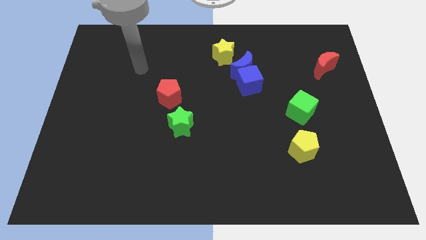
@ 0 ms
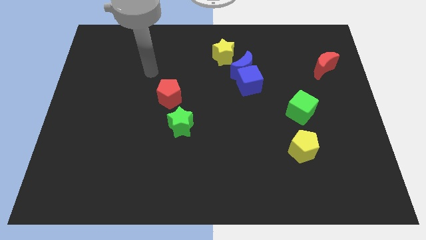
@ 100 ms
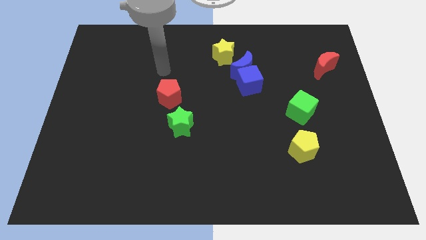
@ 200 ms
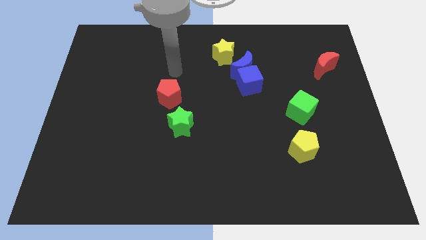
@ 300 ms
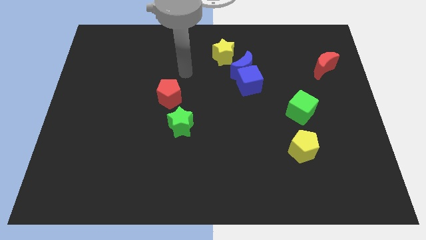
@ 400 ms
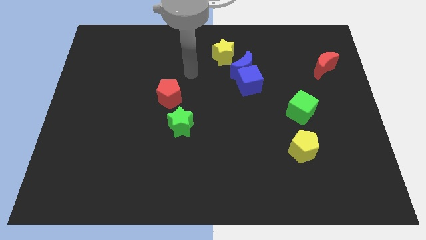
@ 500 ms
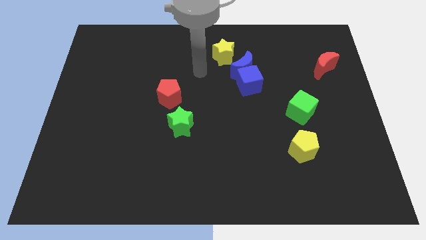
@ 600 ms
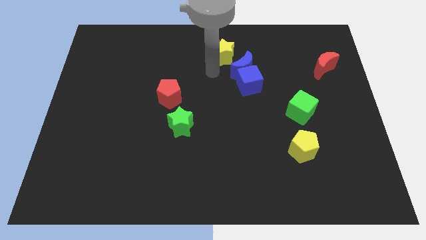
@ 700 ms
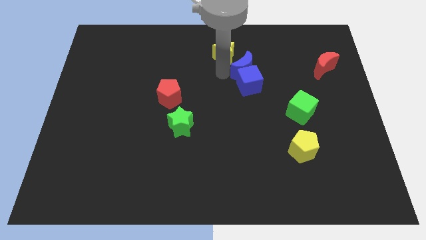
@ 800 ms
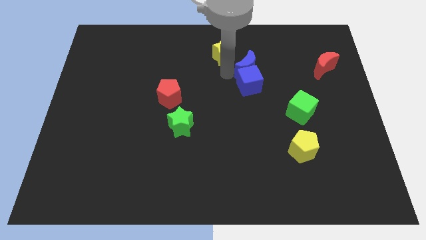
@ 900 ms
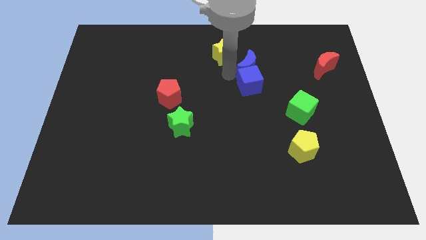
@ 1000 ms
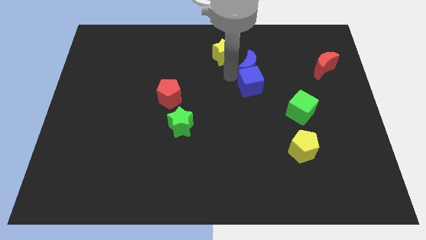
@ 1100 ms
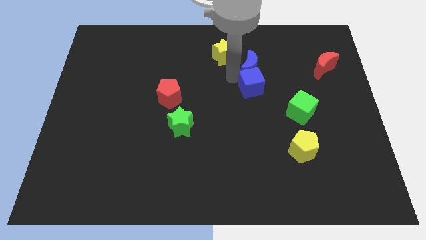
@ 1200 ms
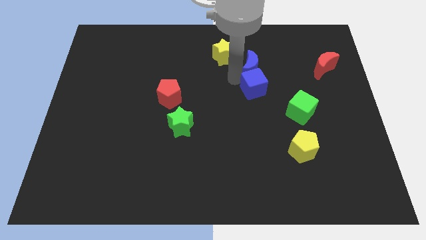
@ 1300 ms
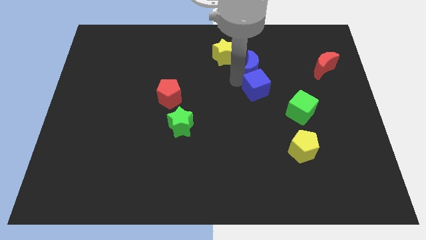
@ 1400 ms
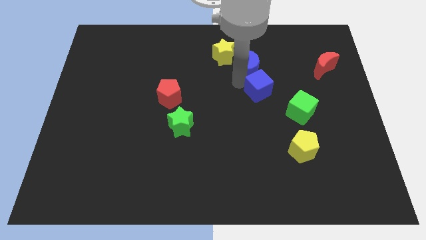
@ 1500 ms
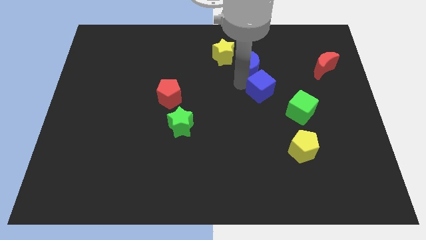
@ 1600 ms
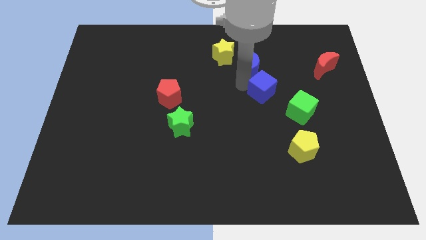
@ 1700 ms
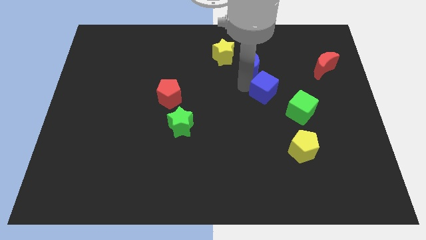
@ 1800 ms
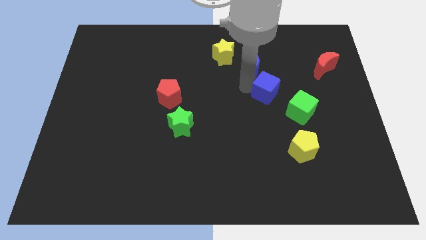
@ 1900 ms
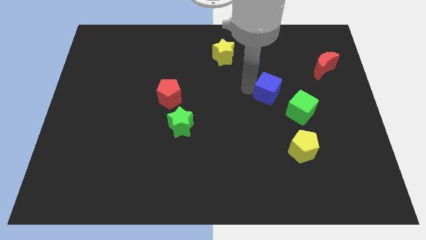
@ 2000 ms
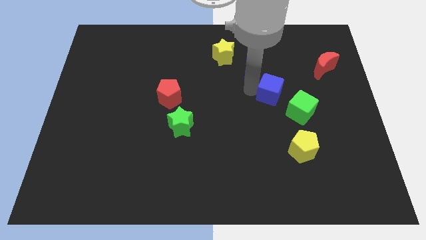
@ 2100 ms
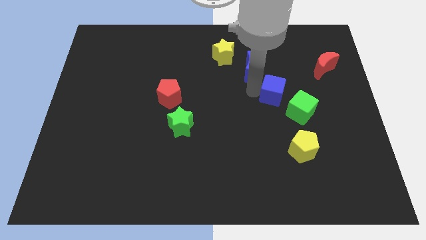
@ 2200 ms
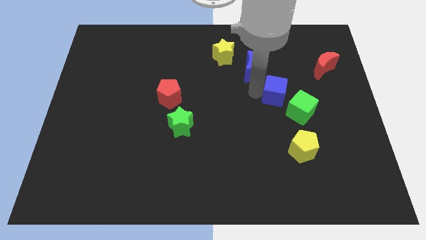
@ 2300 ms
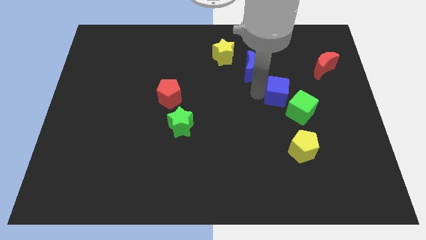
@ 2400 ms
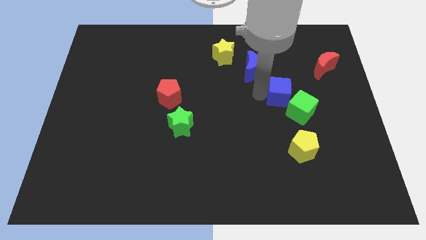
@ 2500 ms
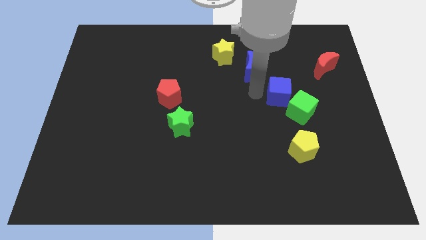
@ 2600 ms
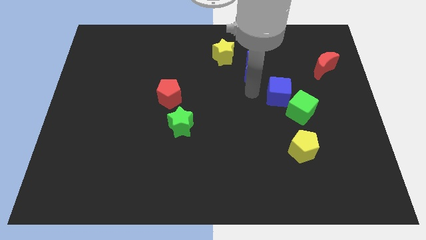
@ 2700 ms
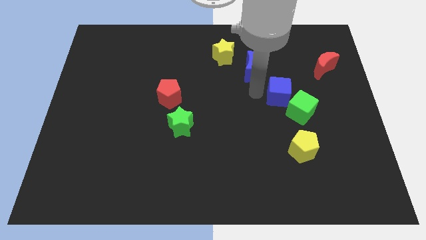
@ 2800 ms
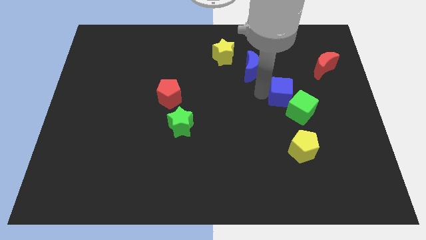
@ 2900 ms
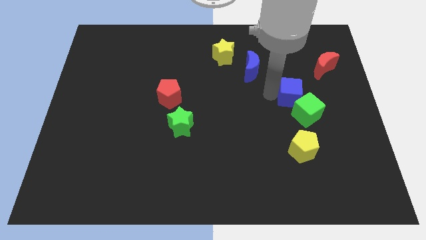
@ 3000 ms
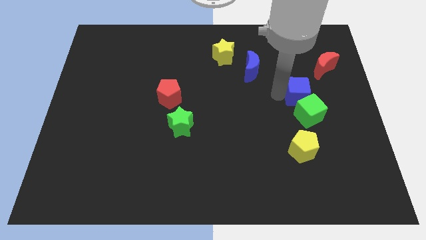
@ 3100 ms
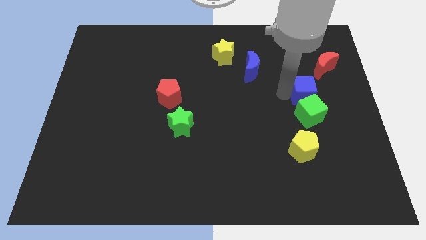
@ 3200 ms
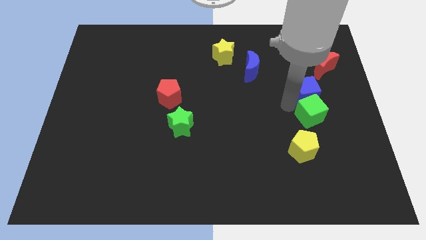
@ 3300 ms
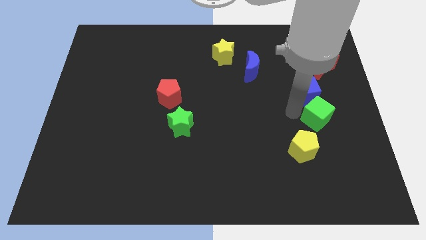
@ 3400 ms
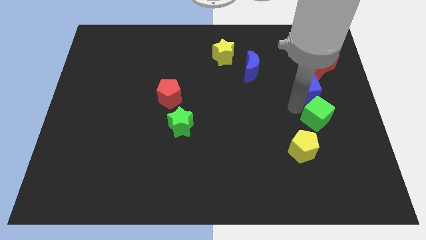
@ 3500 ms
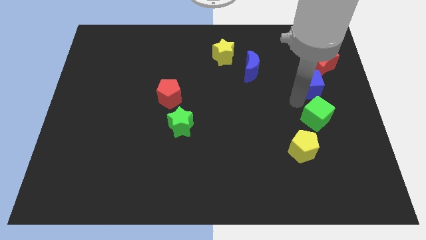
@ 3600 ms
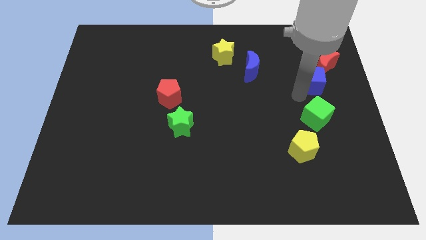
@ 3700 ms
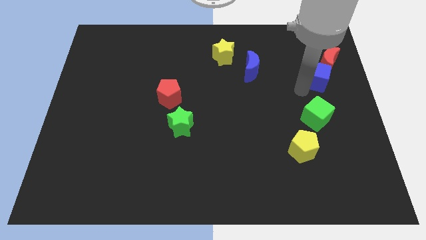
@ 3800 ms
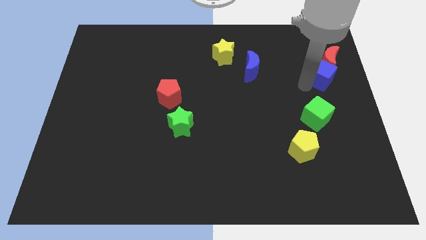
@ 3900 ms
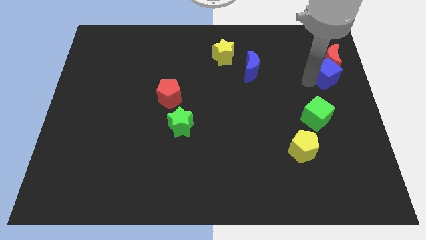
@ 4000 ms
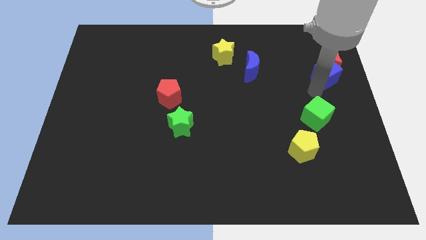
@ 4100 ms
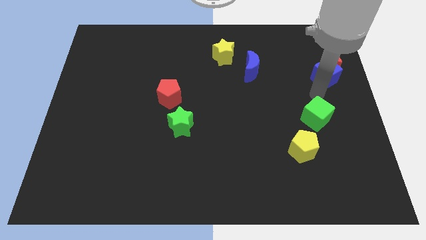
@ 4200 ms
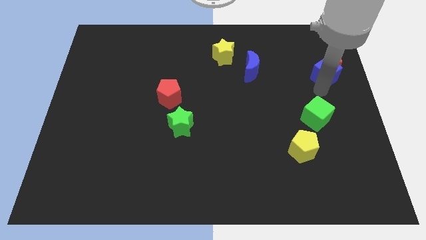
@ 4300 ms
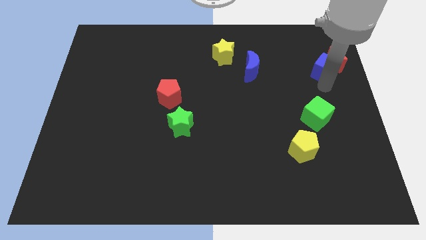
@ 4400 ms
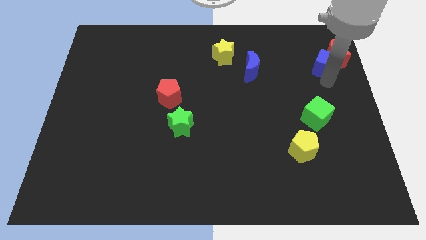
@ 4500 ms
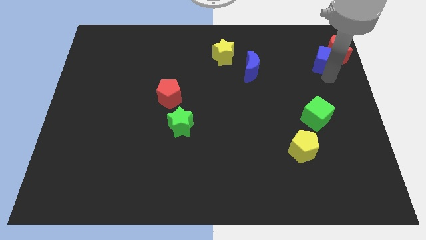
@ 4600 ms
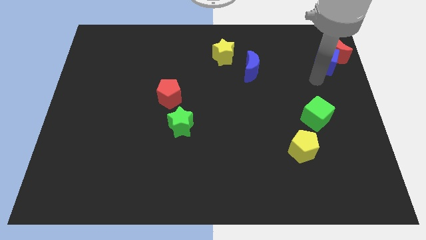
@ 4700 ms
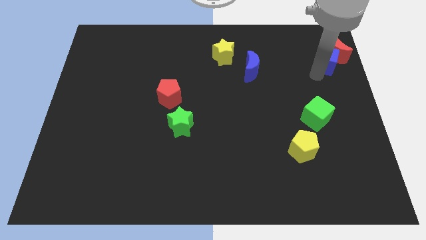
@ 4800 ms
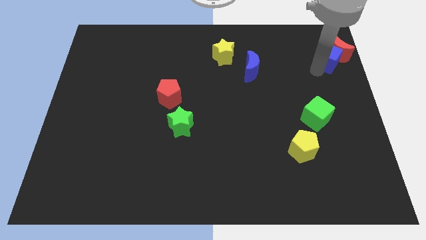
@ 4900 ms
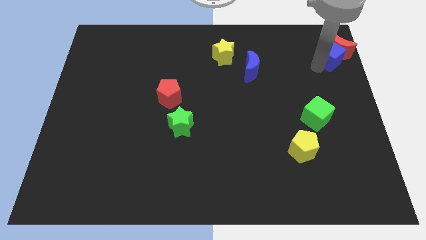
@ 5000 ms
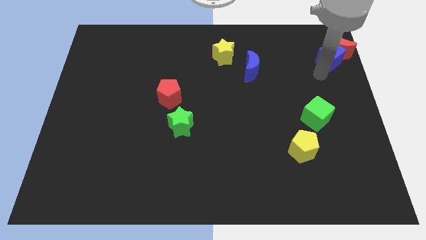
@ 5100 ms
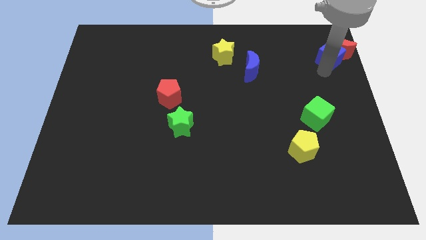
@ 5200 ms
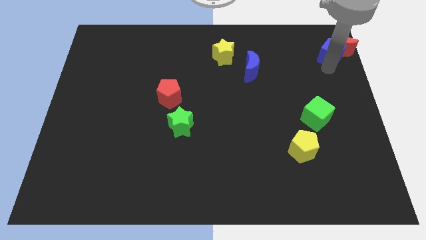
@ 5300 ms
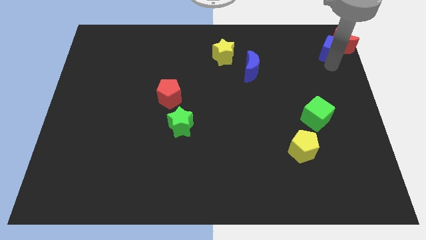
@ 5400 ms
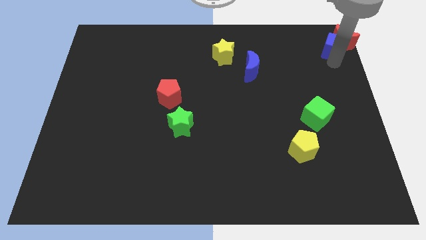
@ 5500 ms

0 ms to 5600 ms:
put the blue cube to the top right

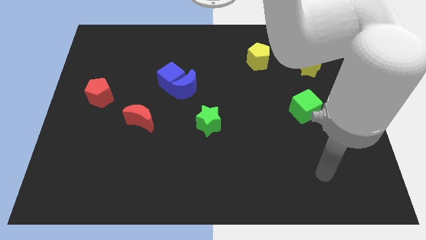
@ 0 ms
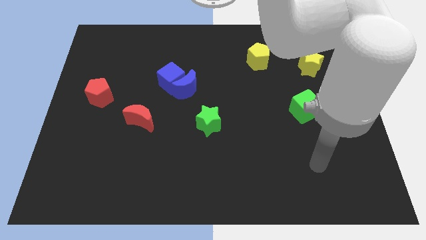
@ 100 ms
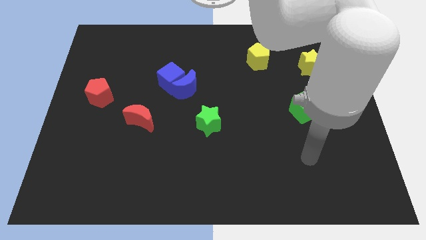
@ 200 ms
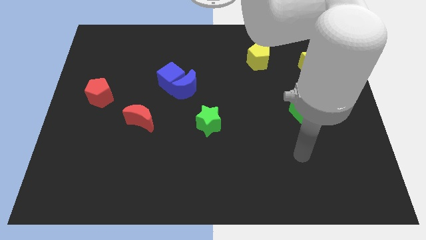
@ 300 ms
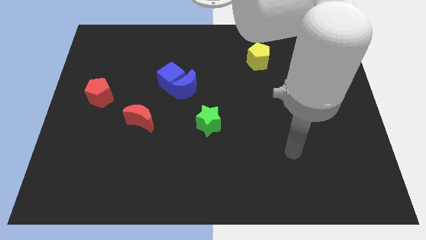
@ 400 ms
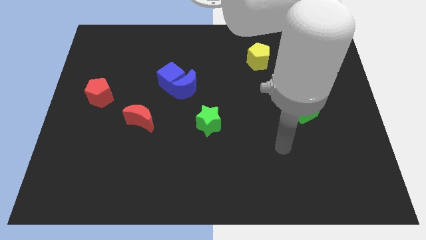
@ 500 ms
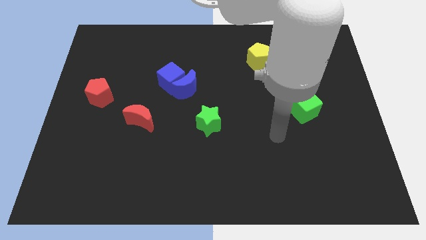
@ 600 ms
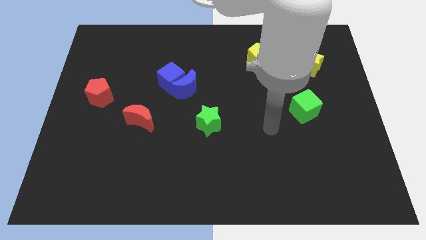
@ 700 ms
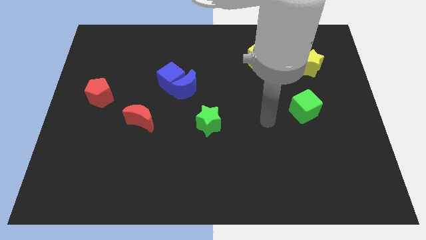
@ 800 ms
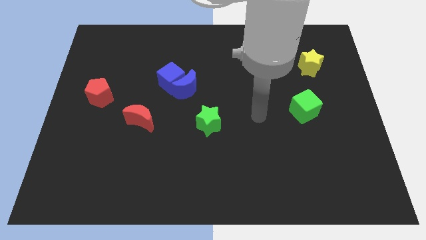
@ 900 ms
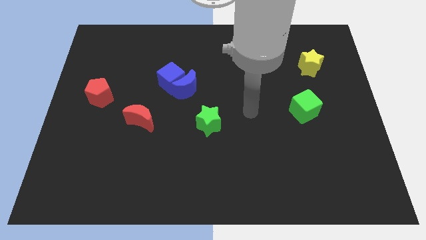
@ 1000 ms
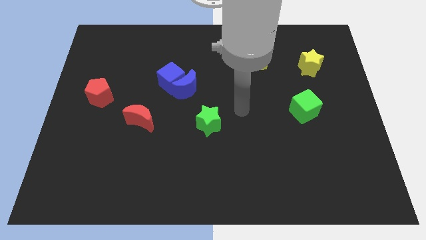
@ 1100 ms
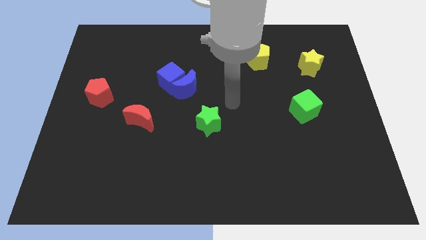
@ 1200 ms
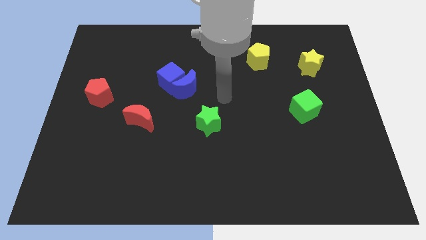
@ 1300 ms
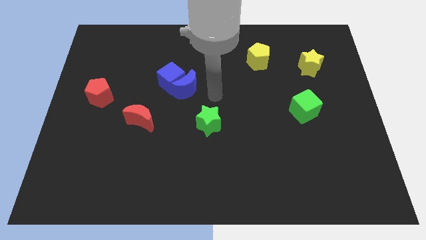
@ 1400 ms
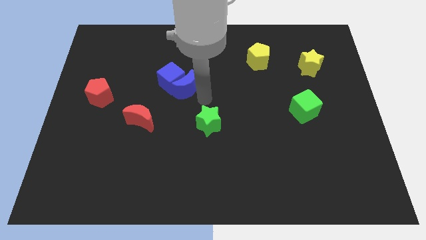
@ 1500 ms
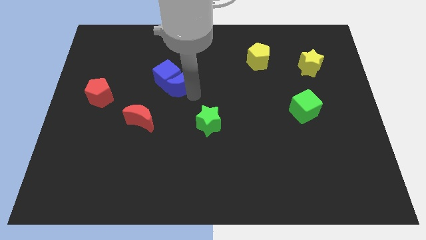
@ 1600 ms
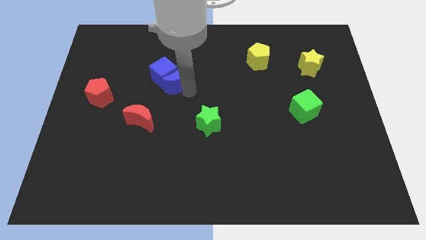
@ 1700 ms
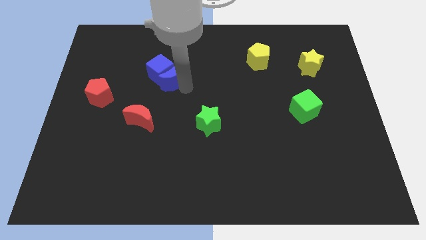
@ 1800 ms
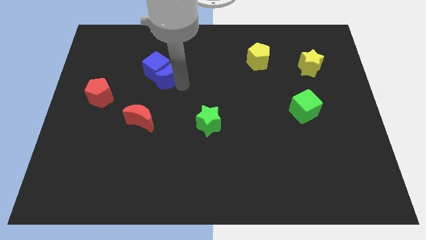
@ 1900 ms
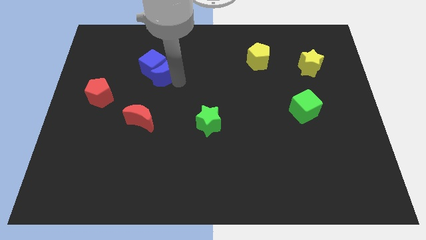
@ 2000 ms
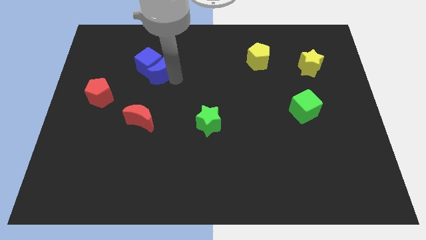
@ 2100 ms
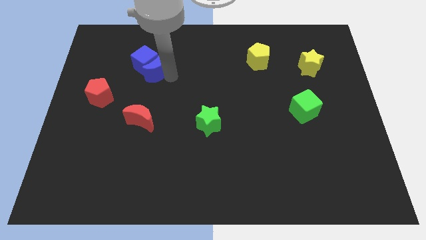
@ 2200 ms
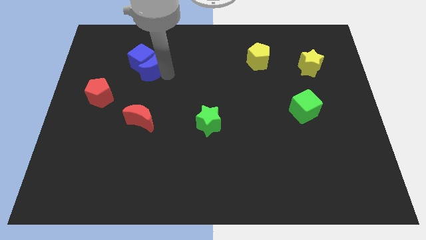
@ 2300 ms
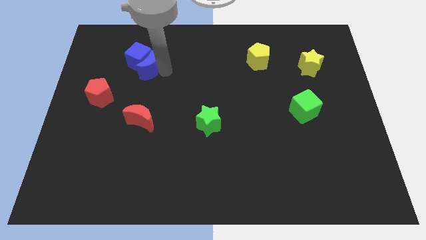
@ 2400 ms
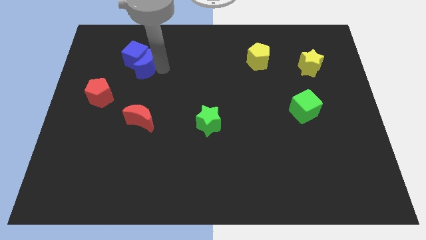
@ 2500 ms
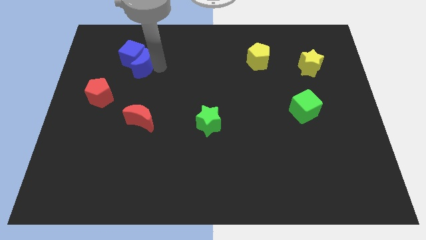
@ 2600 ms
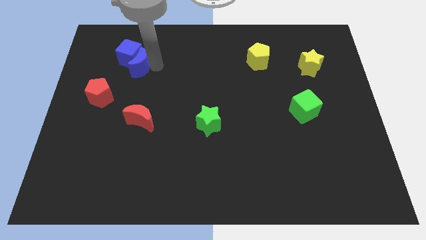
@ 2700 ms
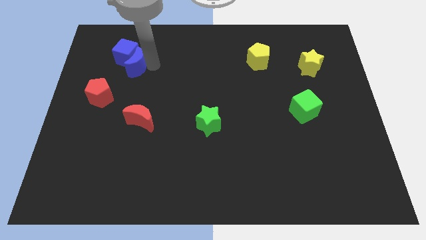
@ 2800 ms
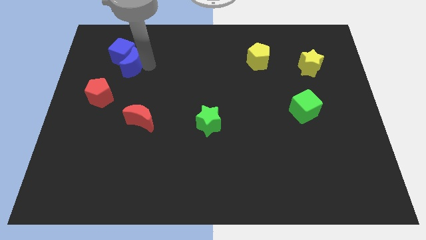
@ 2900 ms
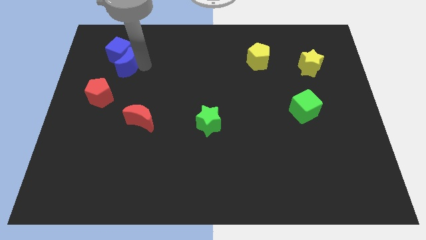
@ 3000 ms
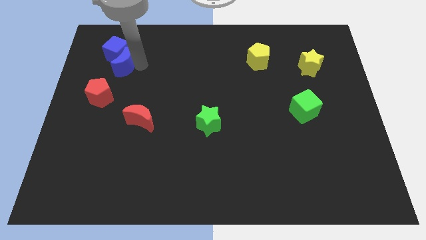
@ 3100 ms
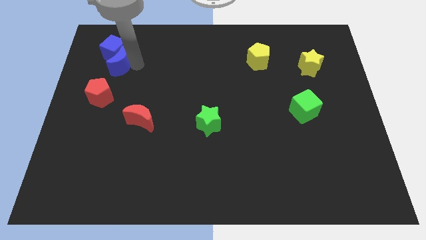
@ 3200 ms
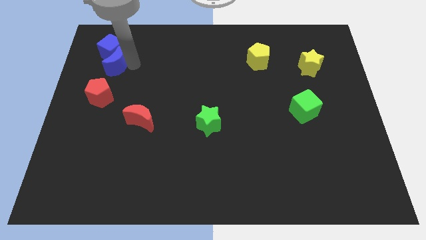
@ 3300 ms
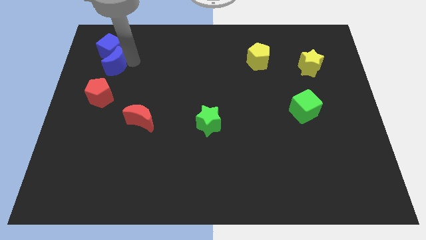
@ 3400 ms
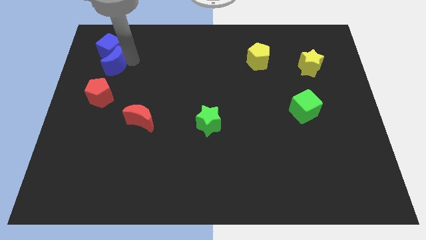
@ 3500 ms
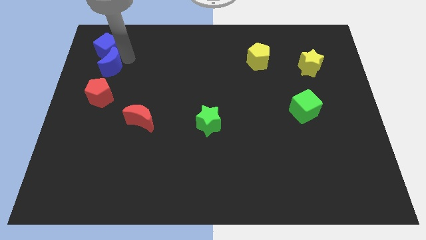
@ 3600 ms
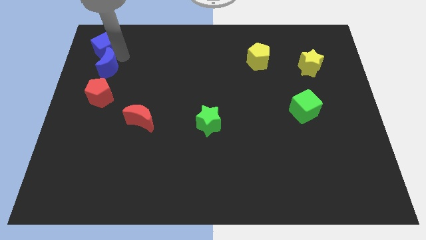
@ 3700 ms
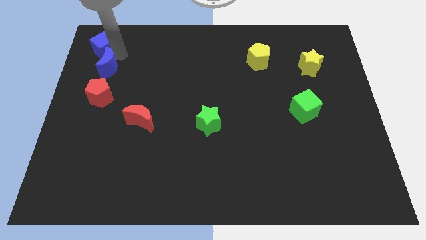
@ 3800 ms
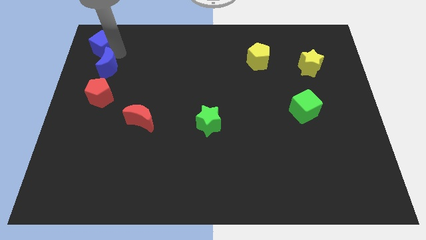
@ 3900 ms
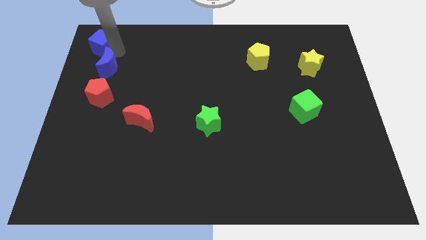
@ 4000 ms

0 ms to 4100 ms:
push the blue cube to the top left
